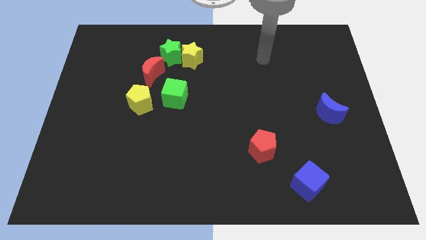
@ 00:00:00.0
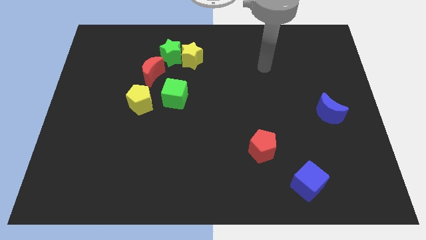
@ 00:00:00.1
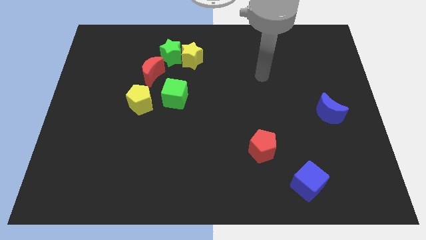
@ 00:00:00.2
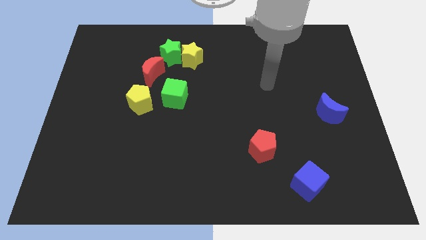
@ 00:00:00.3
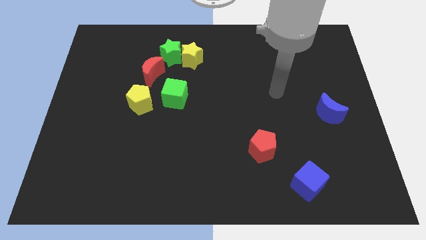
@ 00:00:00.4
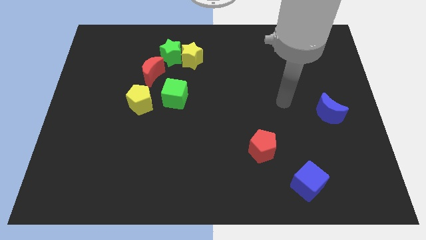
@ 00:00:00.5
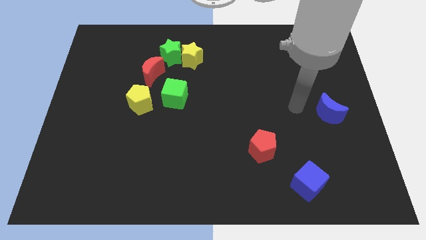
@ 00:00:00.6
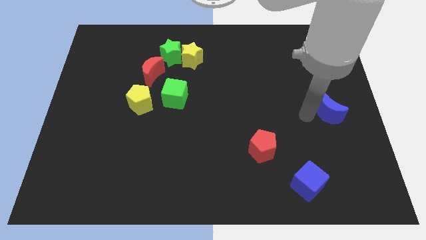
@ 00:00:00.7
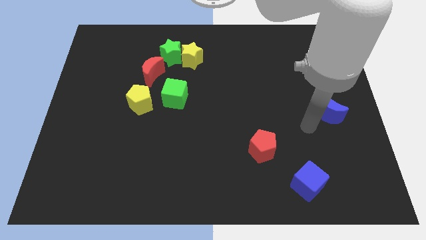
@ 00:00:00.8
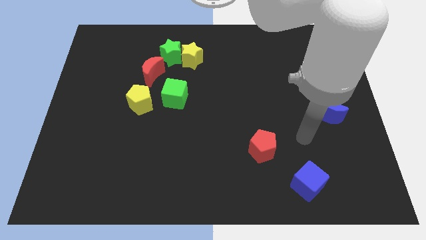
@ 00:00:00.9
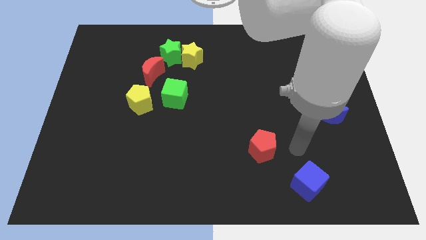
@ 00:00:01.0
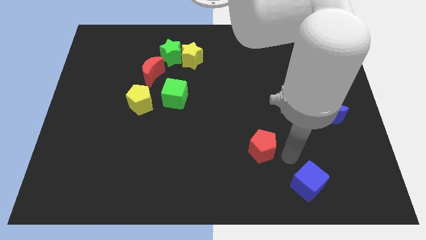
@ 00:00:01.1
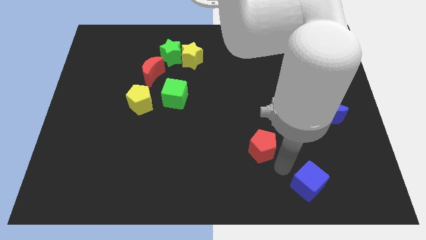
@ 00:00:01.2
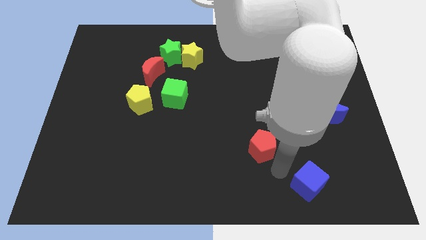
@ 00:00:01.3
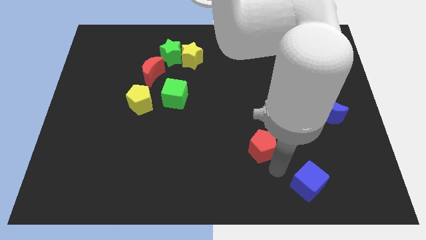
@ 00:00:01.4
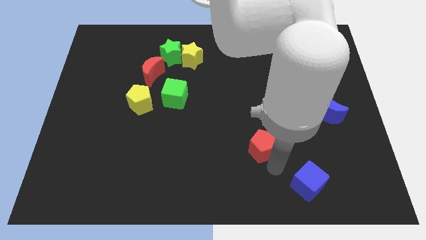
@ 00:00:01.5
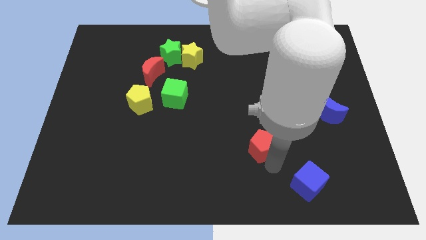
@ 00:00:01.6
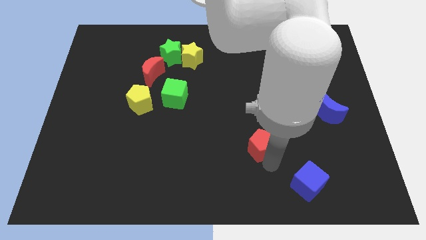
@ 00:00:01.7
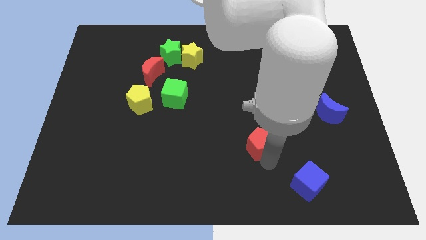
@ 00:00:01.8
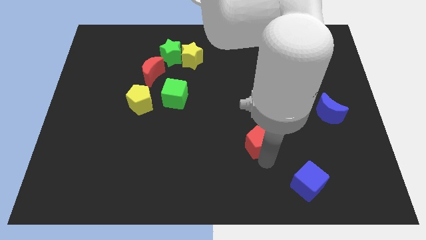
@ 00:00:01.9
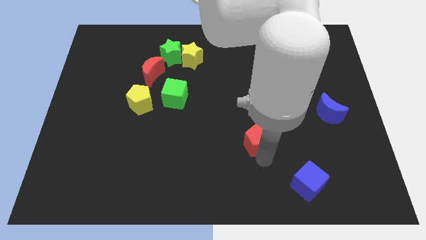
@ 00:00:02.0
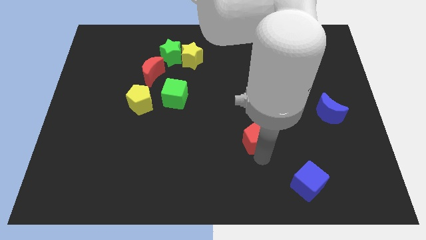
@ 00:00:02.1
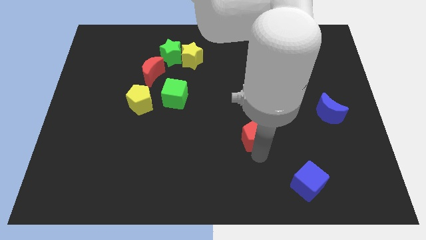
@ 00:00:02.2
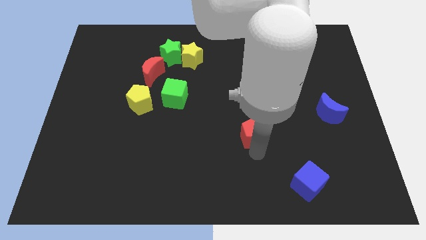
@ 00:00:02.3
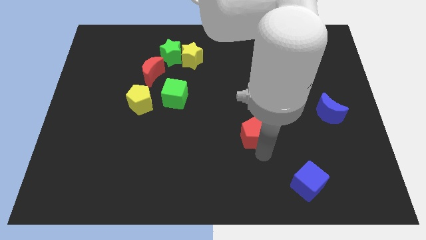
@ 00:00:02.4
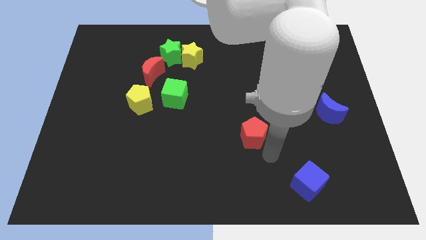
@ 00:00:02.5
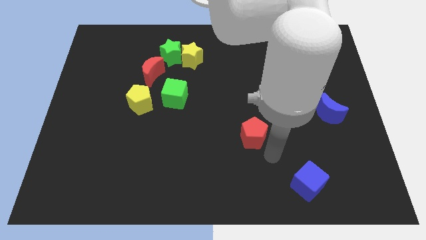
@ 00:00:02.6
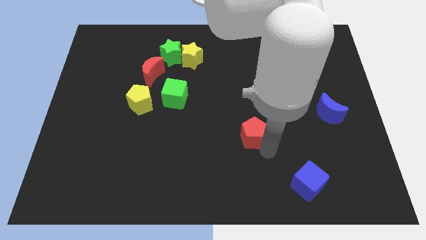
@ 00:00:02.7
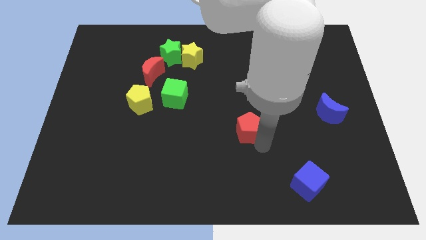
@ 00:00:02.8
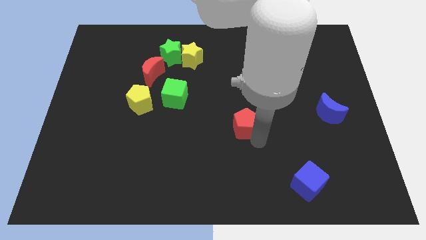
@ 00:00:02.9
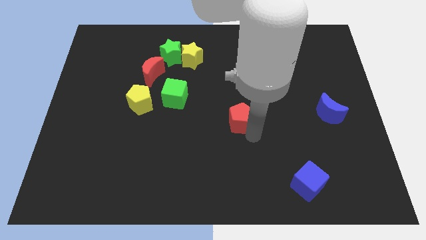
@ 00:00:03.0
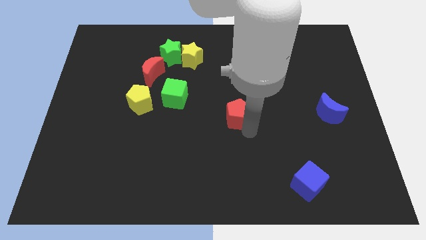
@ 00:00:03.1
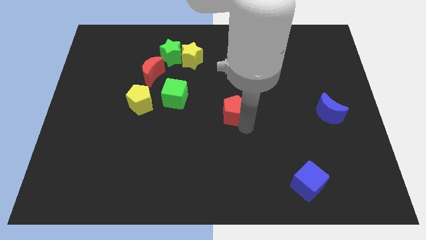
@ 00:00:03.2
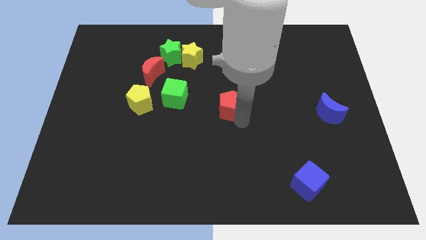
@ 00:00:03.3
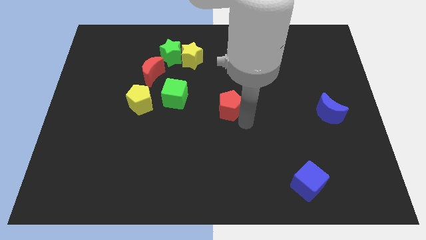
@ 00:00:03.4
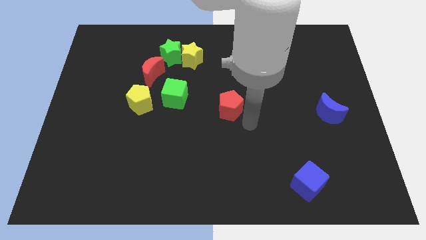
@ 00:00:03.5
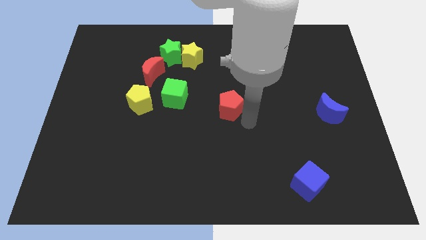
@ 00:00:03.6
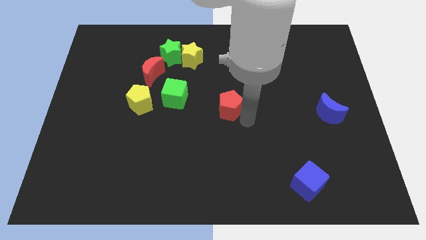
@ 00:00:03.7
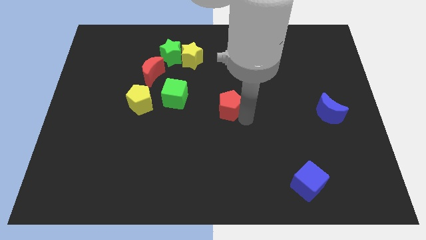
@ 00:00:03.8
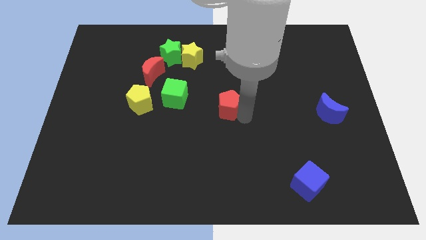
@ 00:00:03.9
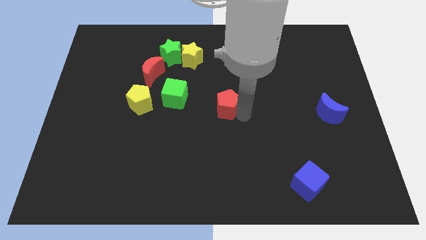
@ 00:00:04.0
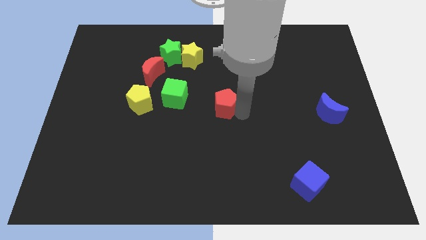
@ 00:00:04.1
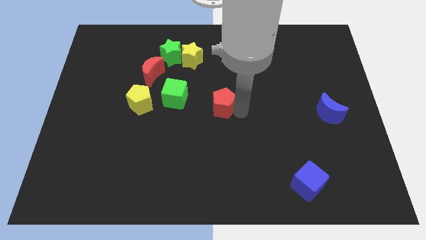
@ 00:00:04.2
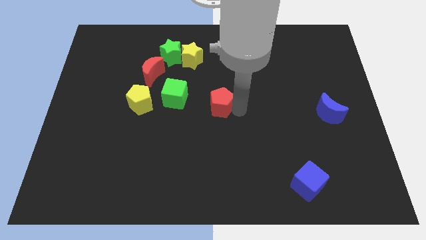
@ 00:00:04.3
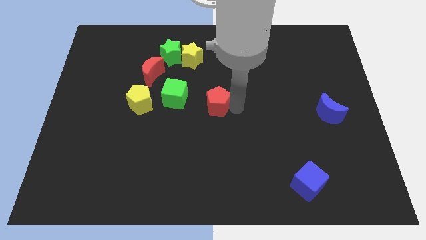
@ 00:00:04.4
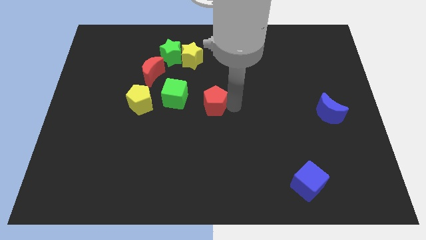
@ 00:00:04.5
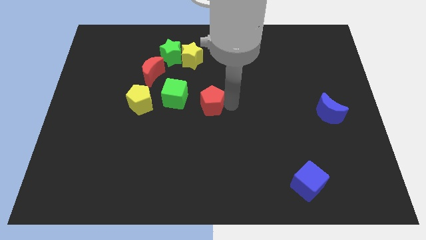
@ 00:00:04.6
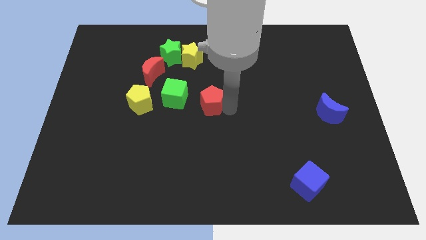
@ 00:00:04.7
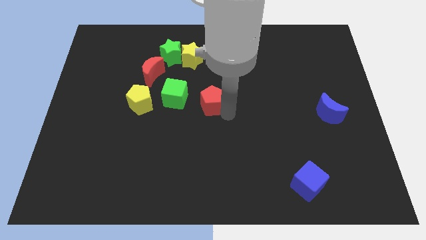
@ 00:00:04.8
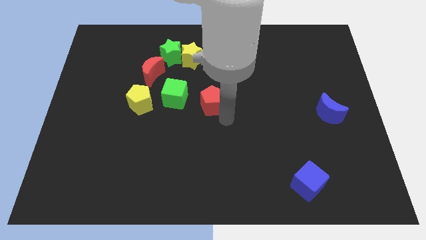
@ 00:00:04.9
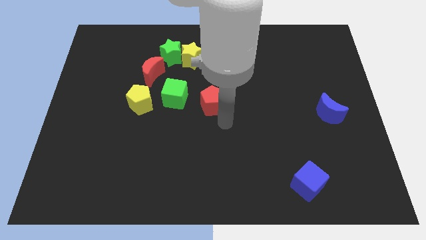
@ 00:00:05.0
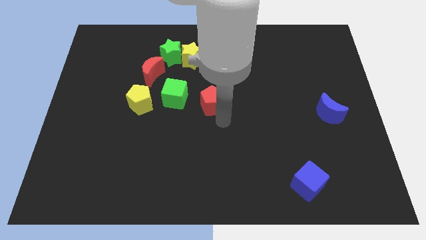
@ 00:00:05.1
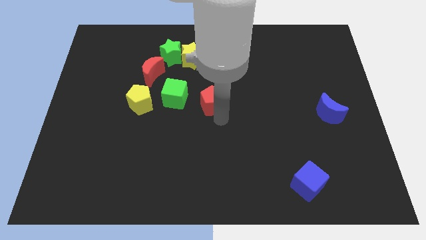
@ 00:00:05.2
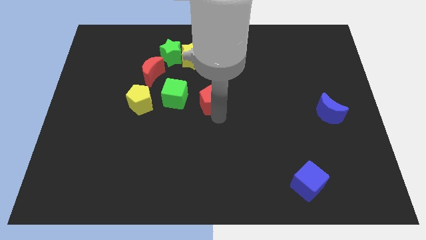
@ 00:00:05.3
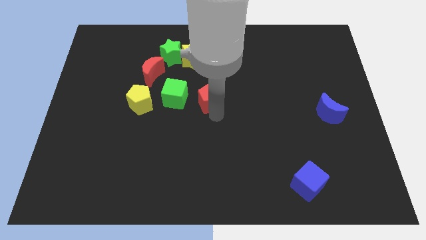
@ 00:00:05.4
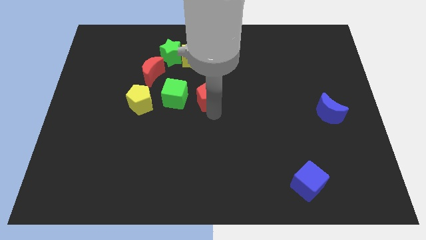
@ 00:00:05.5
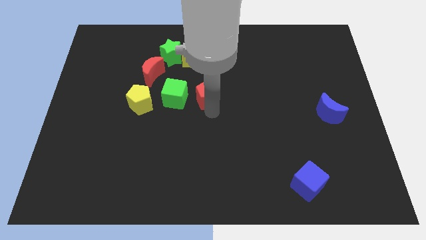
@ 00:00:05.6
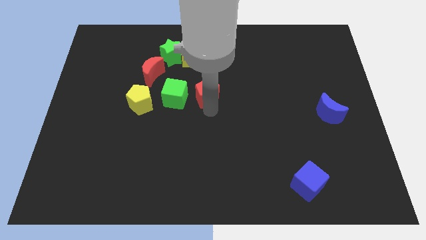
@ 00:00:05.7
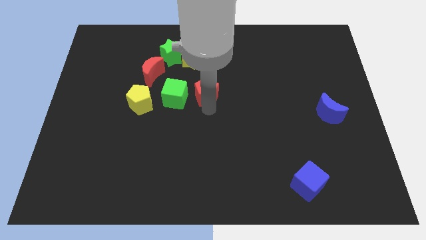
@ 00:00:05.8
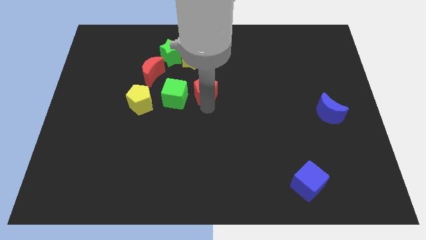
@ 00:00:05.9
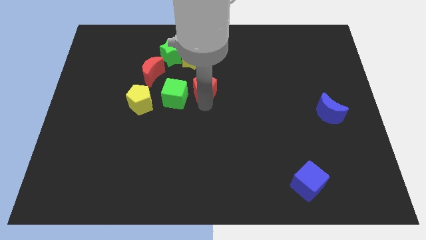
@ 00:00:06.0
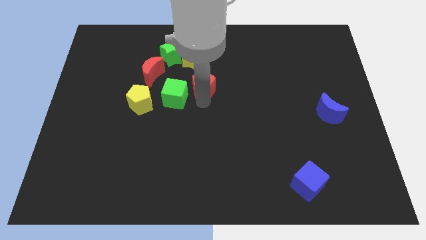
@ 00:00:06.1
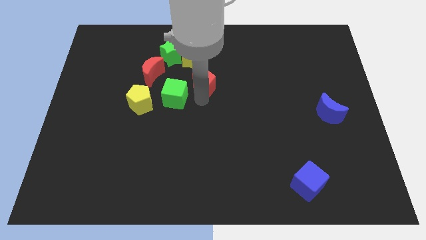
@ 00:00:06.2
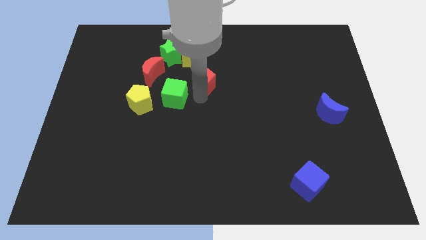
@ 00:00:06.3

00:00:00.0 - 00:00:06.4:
move the red pentagon to the bottom right side of the green star

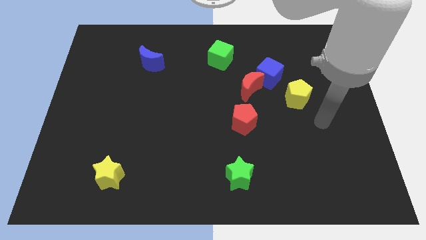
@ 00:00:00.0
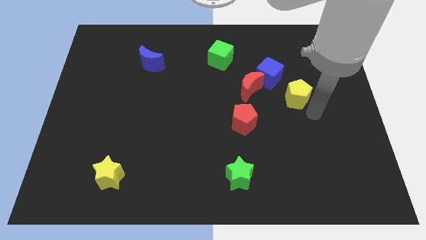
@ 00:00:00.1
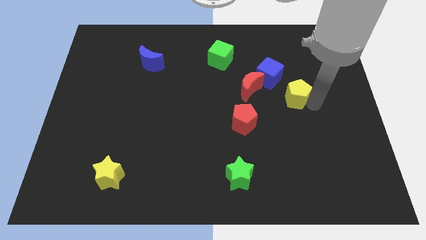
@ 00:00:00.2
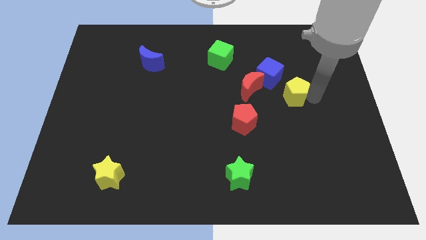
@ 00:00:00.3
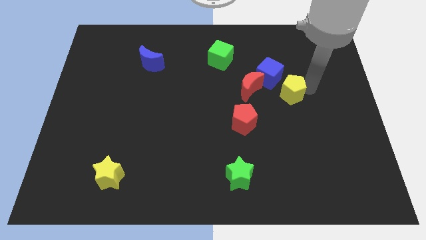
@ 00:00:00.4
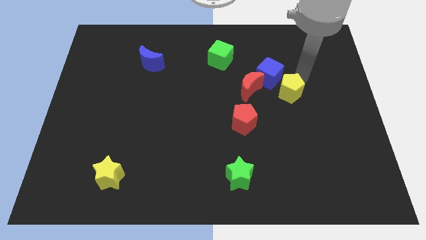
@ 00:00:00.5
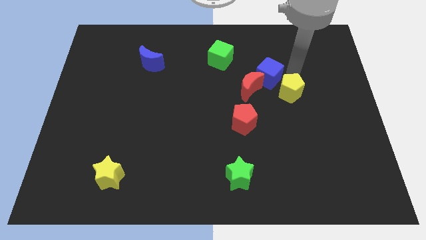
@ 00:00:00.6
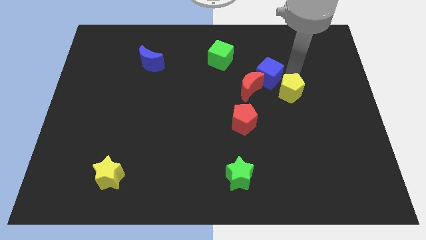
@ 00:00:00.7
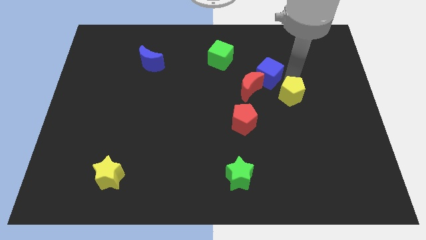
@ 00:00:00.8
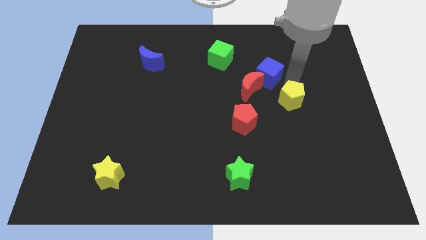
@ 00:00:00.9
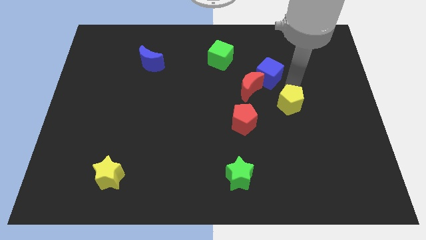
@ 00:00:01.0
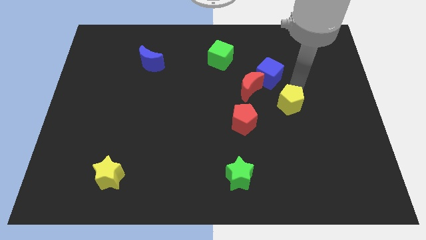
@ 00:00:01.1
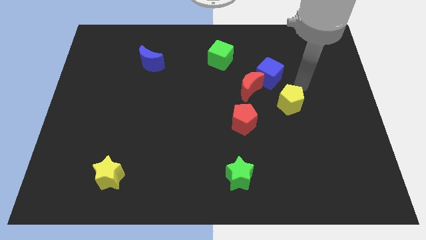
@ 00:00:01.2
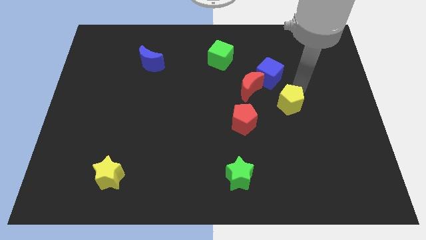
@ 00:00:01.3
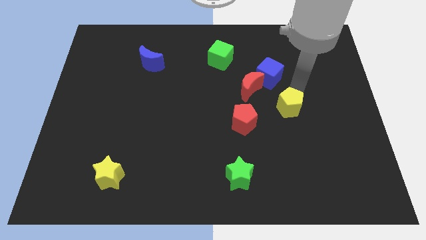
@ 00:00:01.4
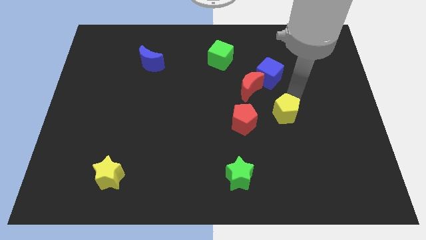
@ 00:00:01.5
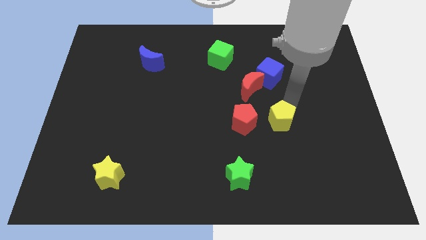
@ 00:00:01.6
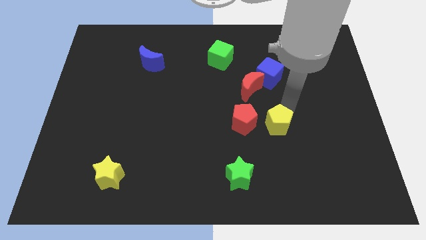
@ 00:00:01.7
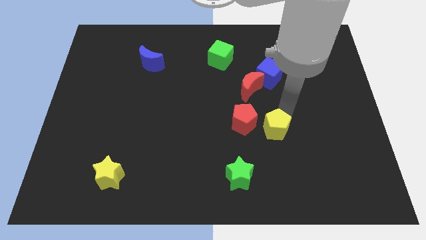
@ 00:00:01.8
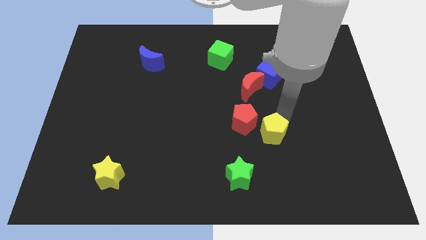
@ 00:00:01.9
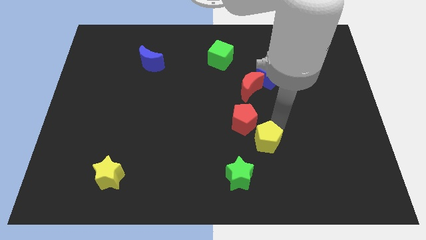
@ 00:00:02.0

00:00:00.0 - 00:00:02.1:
move the yellow pentagon below the red pentagon
